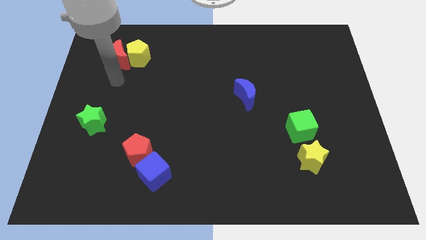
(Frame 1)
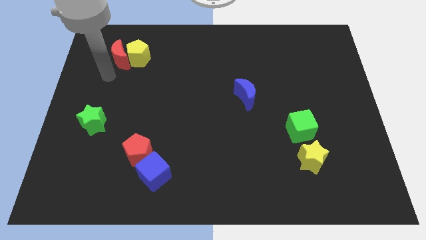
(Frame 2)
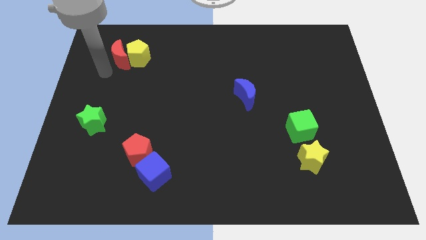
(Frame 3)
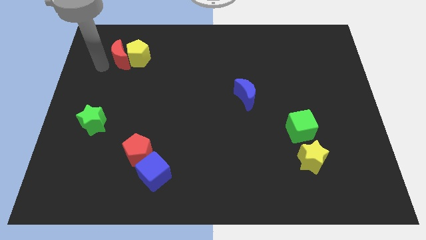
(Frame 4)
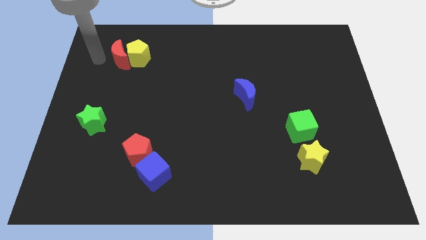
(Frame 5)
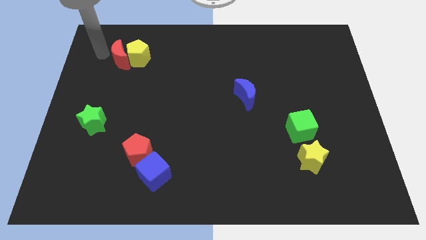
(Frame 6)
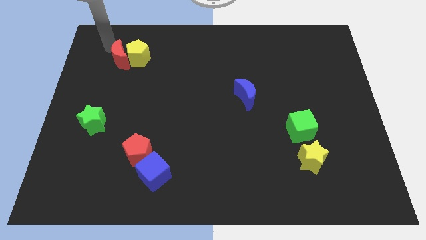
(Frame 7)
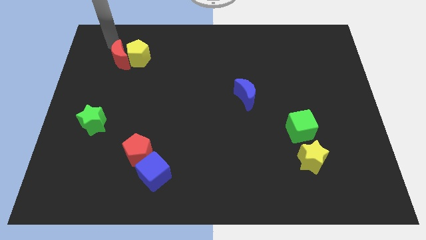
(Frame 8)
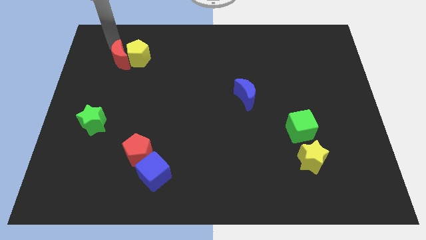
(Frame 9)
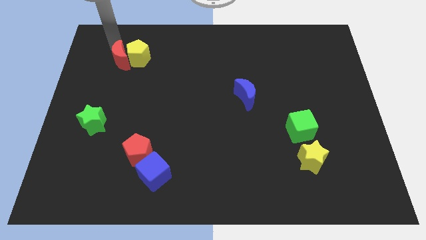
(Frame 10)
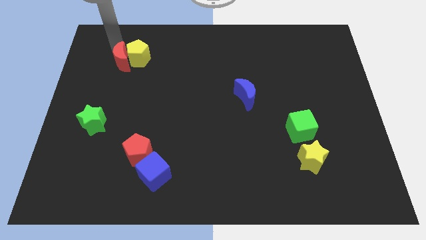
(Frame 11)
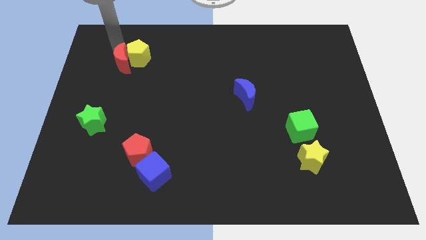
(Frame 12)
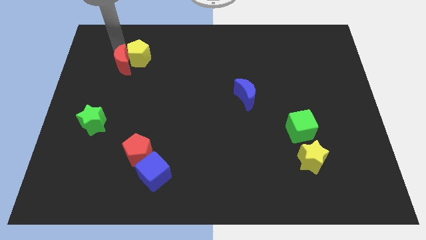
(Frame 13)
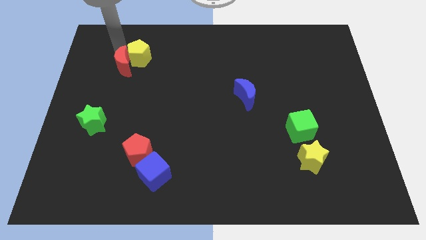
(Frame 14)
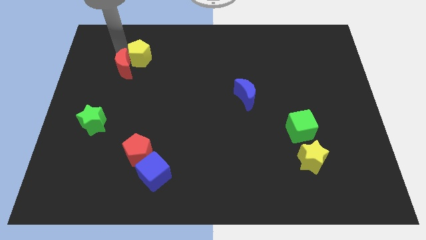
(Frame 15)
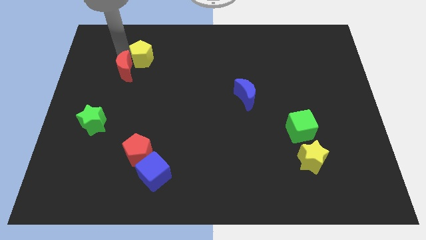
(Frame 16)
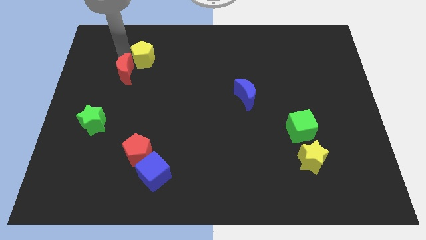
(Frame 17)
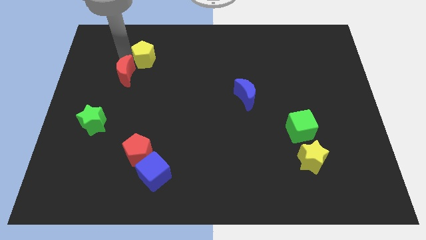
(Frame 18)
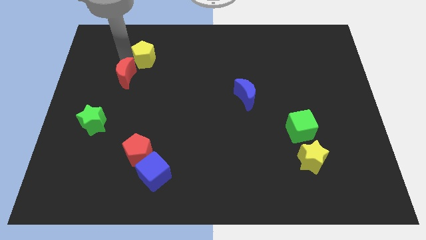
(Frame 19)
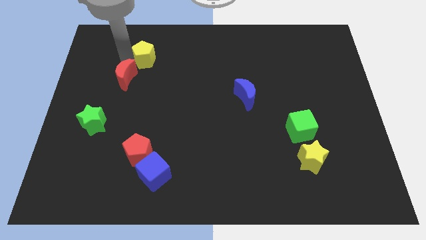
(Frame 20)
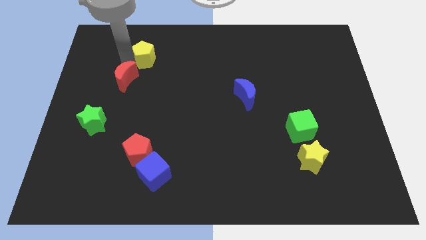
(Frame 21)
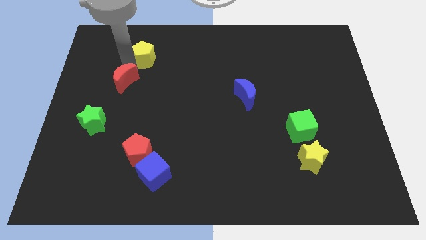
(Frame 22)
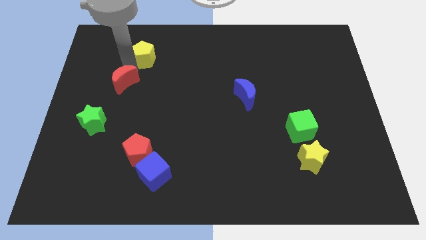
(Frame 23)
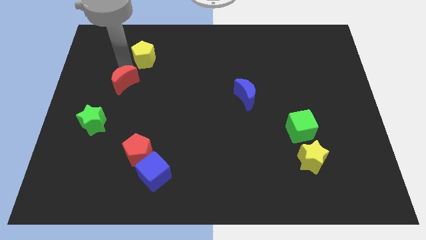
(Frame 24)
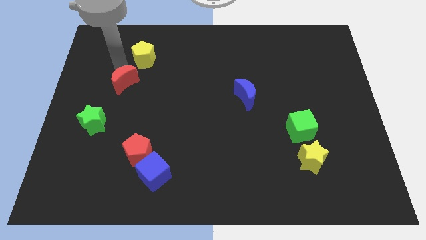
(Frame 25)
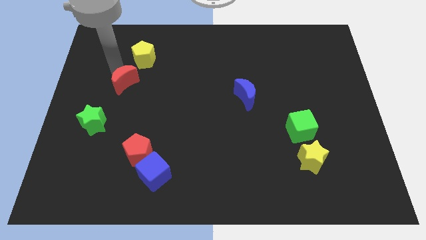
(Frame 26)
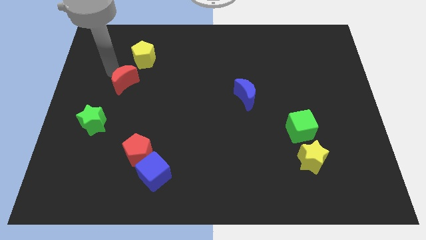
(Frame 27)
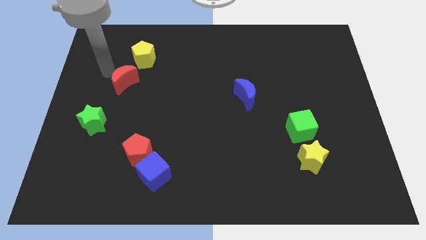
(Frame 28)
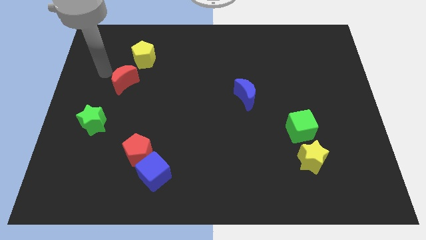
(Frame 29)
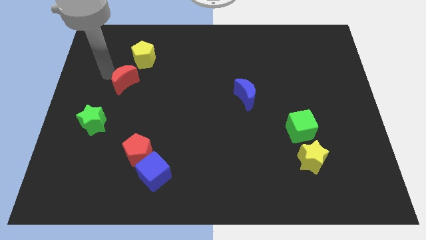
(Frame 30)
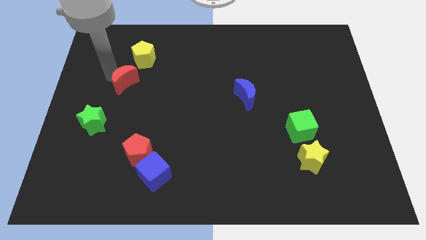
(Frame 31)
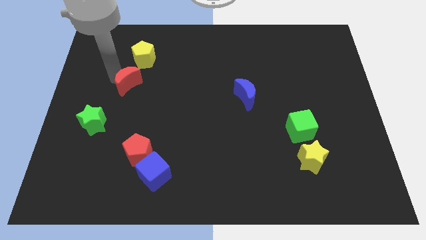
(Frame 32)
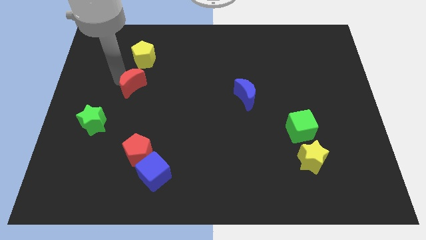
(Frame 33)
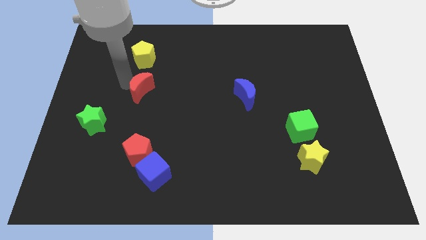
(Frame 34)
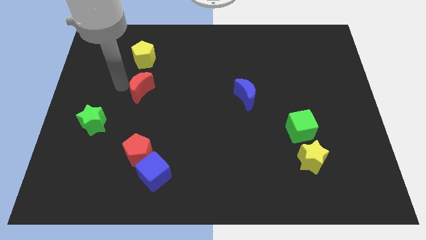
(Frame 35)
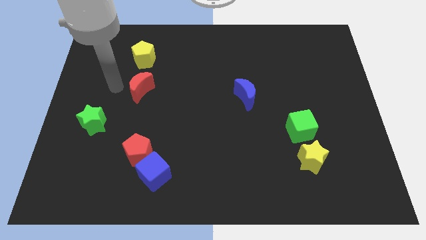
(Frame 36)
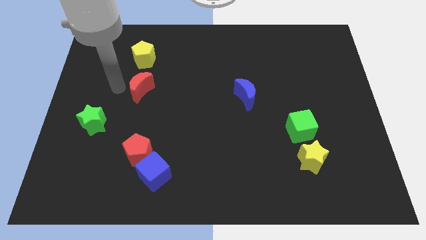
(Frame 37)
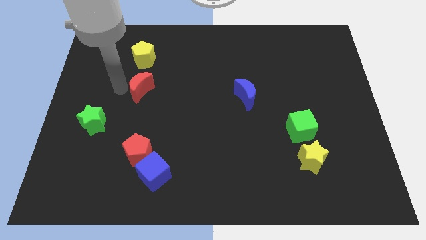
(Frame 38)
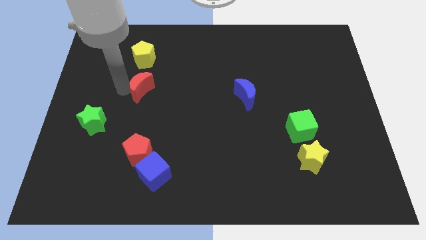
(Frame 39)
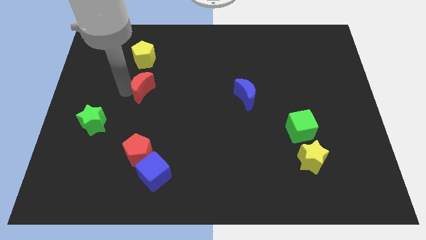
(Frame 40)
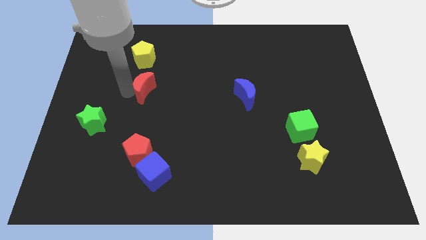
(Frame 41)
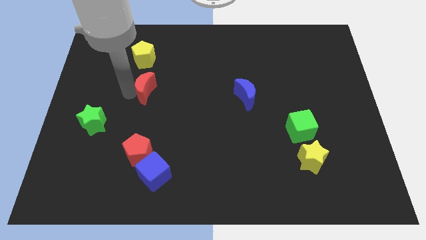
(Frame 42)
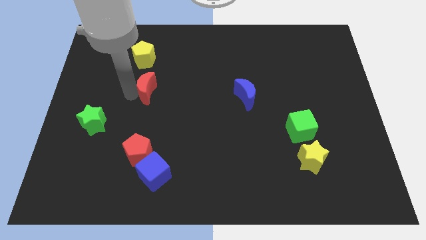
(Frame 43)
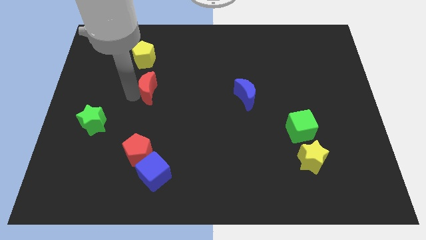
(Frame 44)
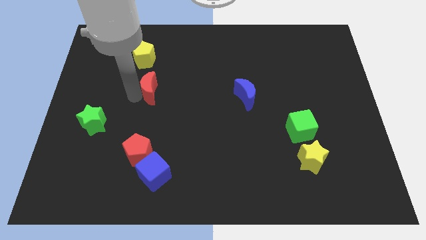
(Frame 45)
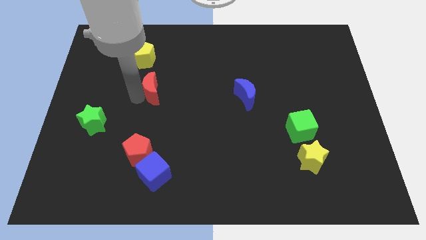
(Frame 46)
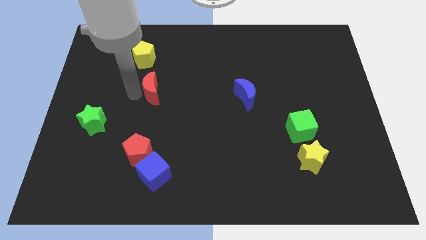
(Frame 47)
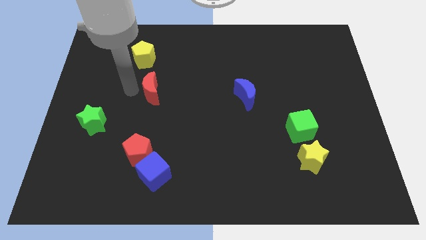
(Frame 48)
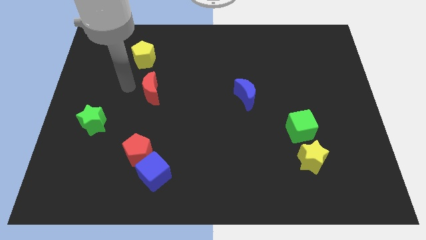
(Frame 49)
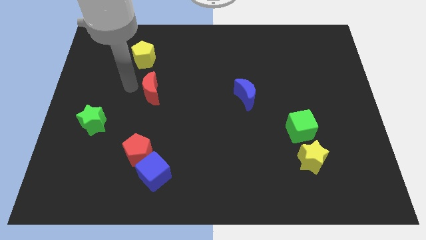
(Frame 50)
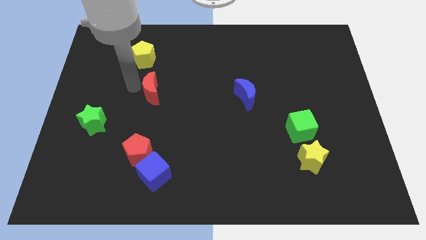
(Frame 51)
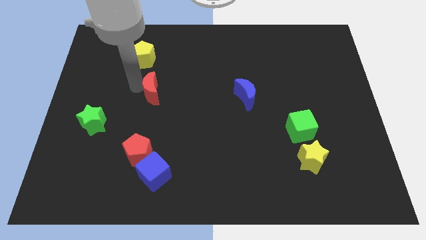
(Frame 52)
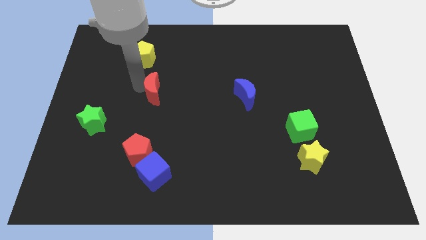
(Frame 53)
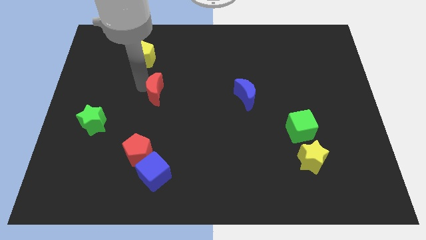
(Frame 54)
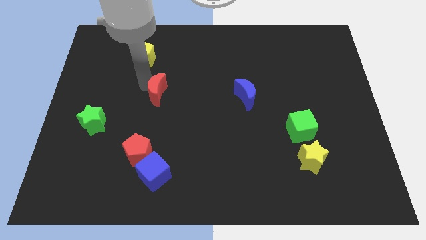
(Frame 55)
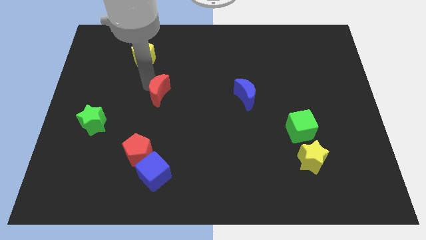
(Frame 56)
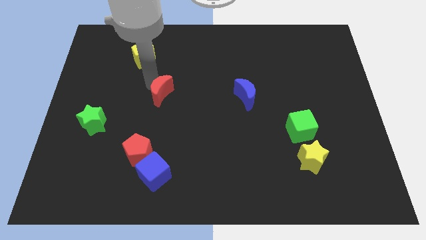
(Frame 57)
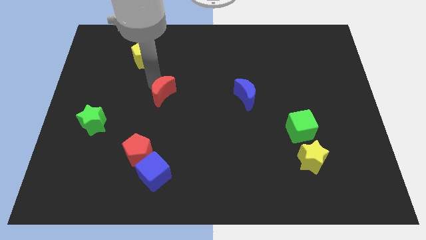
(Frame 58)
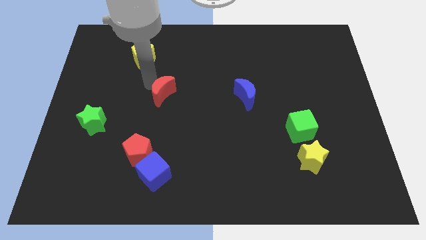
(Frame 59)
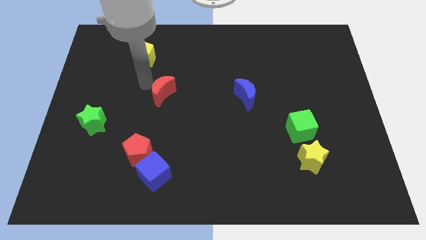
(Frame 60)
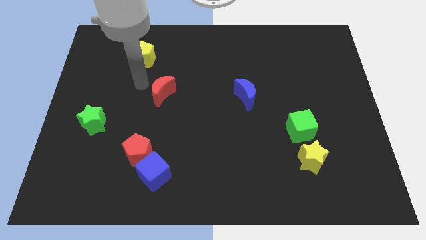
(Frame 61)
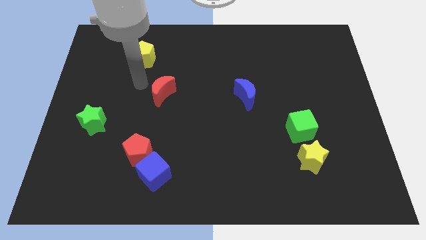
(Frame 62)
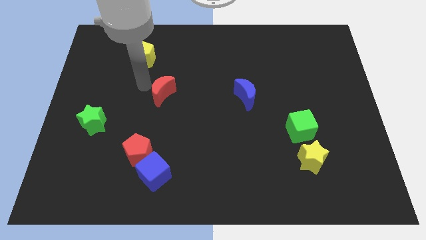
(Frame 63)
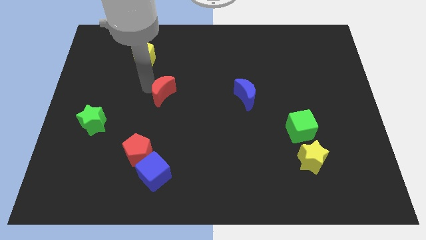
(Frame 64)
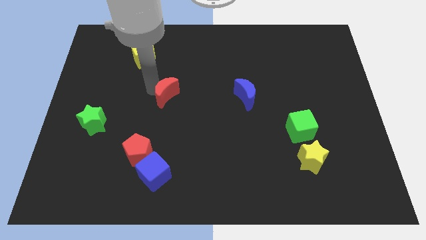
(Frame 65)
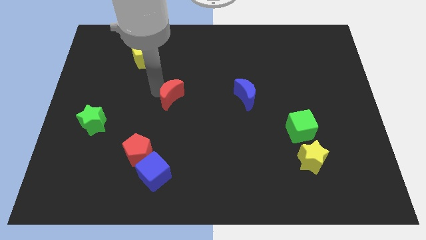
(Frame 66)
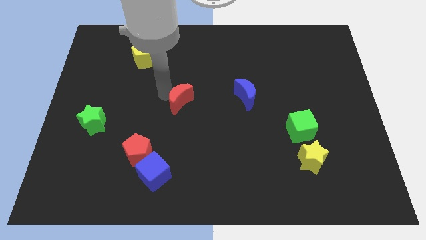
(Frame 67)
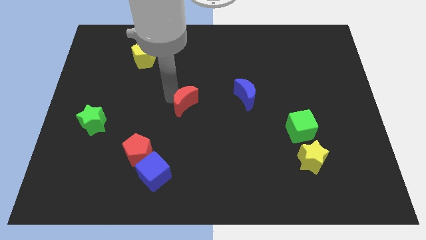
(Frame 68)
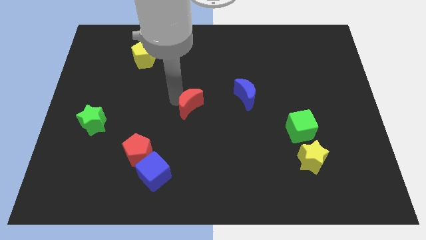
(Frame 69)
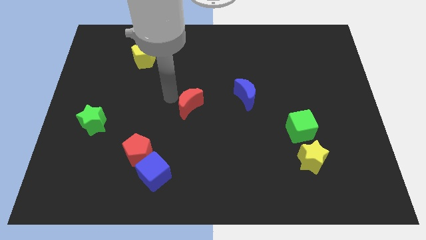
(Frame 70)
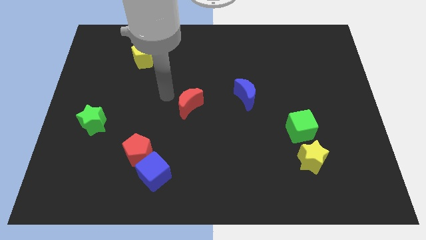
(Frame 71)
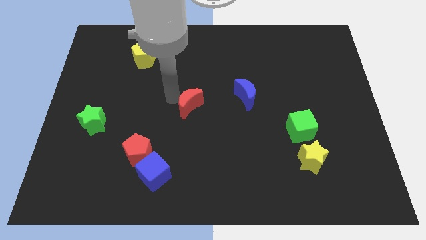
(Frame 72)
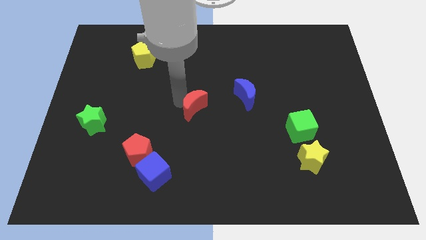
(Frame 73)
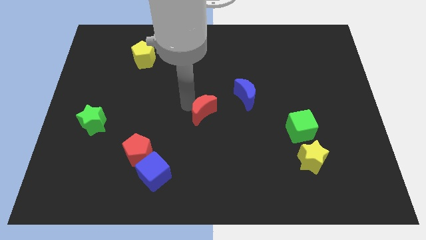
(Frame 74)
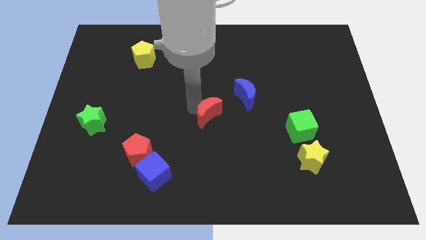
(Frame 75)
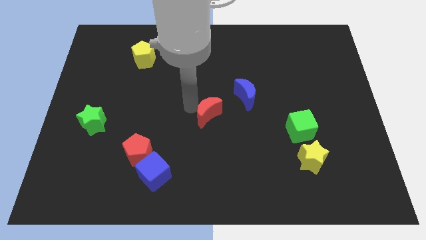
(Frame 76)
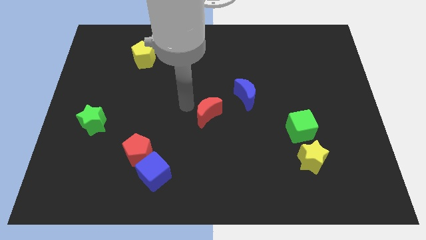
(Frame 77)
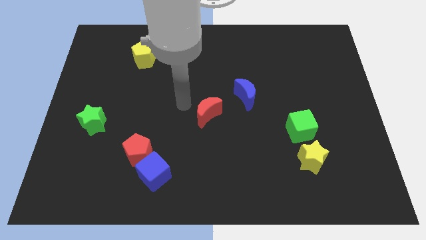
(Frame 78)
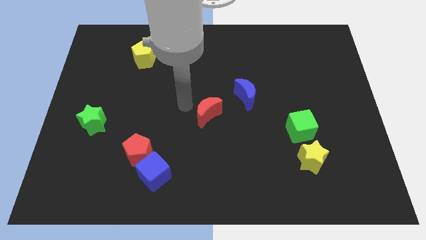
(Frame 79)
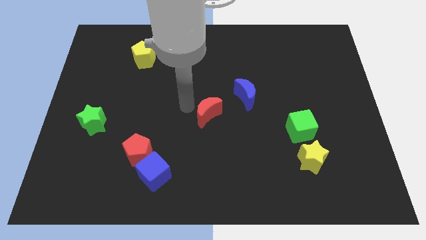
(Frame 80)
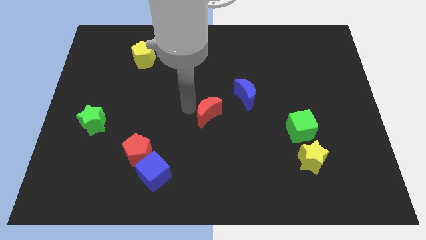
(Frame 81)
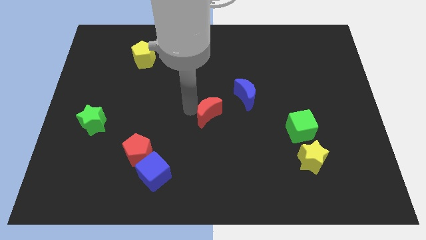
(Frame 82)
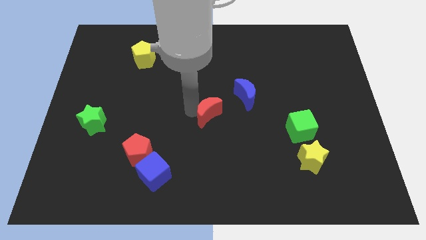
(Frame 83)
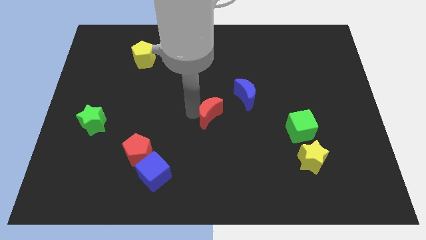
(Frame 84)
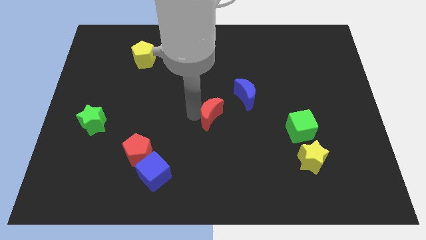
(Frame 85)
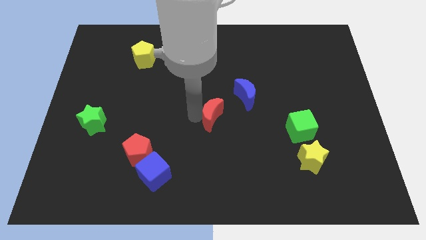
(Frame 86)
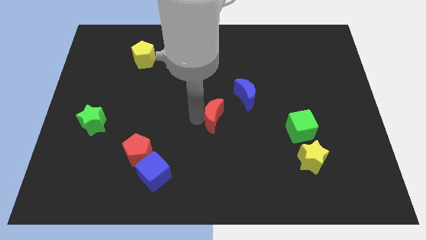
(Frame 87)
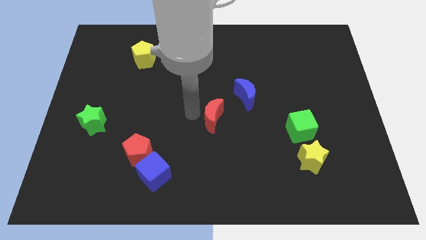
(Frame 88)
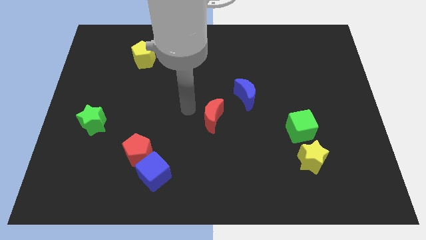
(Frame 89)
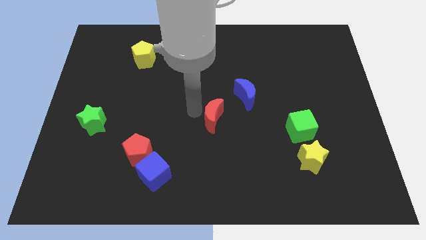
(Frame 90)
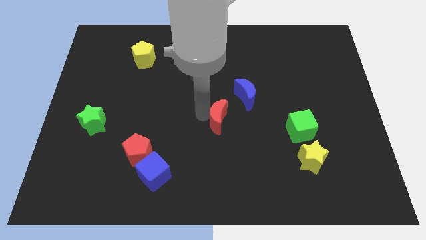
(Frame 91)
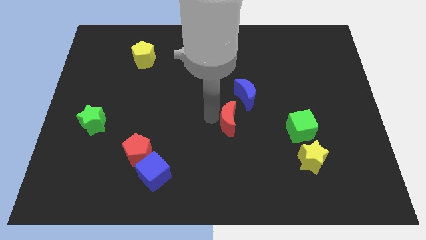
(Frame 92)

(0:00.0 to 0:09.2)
put the red moon below the blue moon
